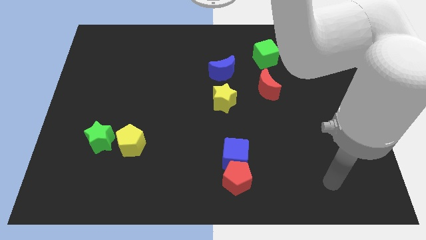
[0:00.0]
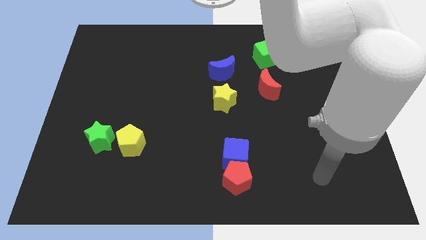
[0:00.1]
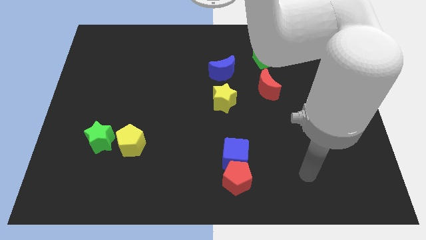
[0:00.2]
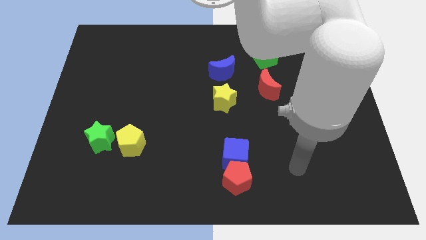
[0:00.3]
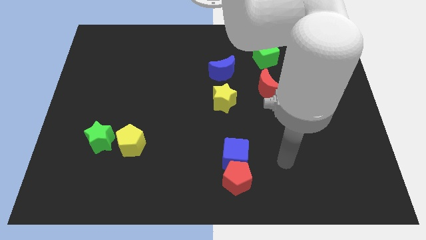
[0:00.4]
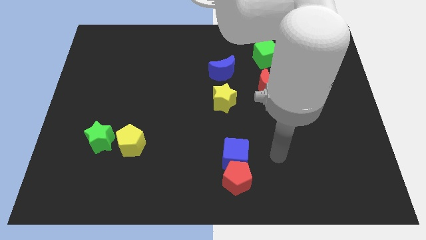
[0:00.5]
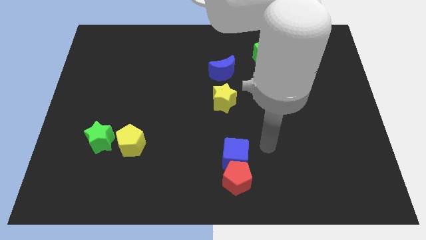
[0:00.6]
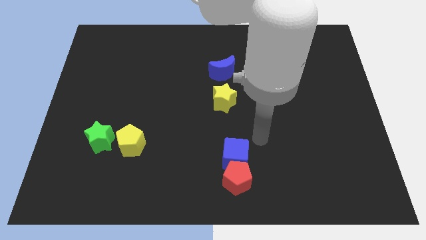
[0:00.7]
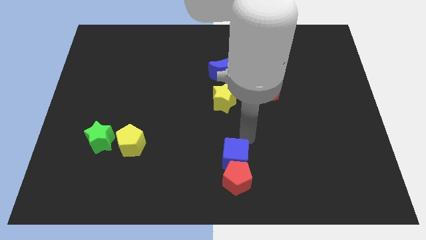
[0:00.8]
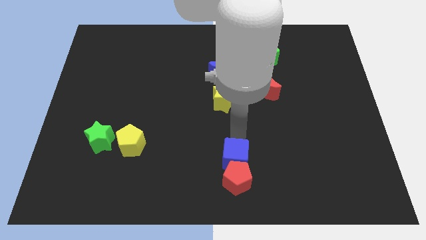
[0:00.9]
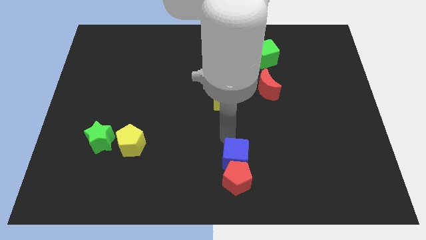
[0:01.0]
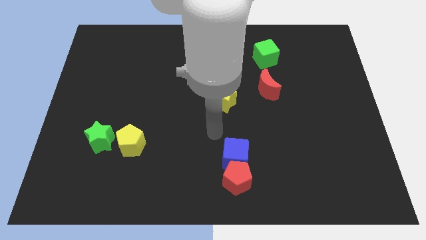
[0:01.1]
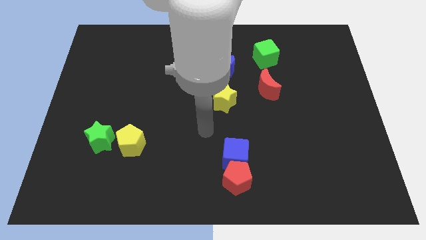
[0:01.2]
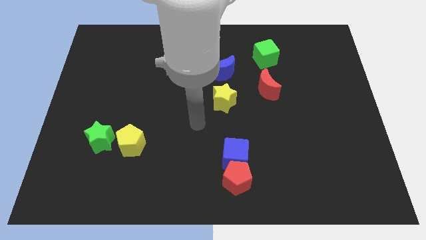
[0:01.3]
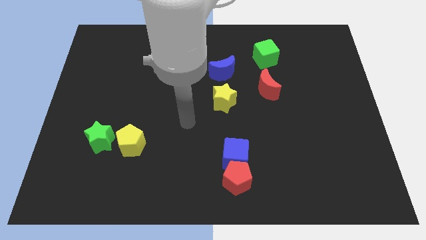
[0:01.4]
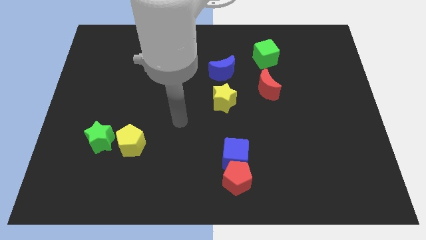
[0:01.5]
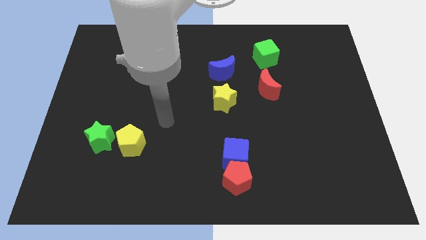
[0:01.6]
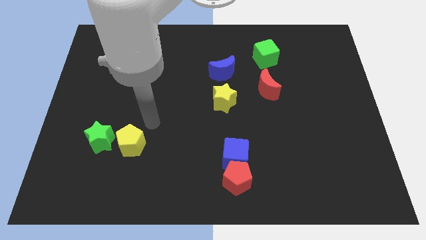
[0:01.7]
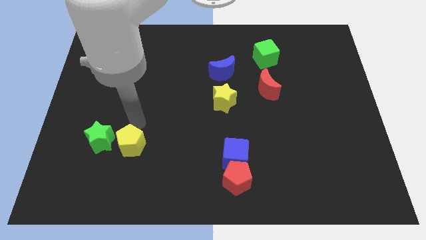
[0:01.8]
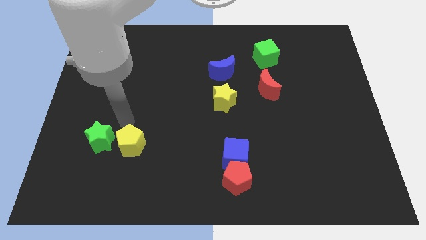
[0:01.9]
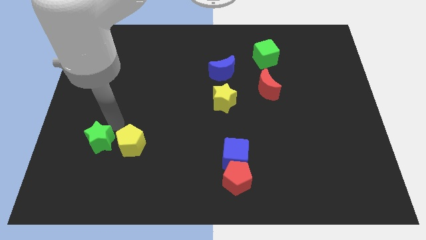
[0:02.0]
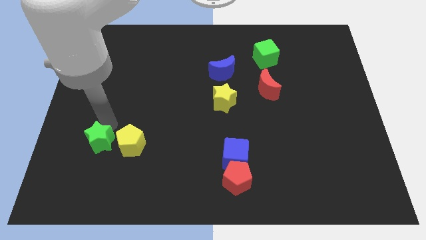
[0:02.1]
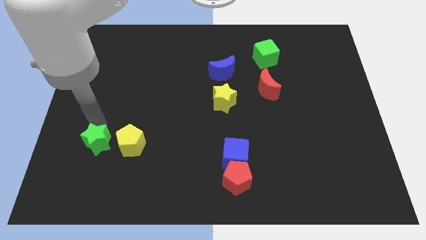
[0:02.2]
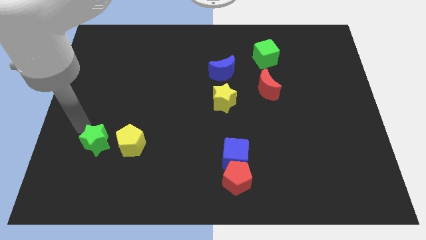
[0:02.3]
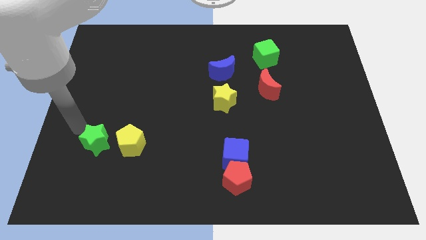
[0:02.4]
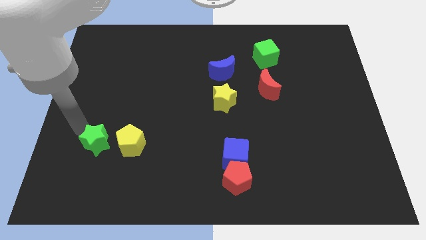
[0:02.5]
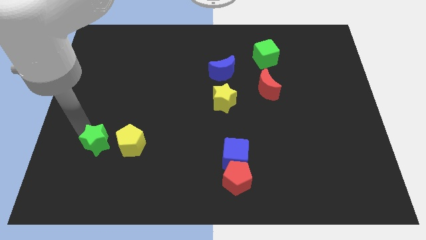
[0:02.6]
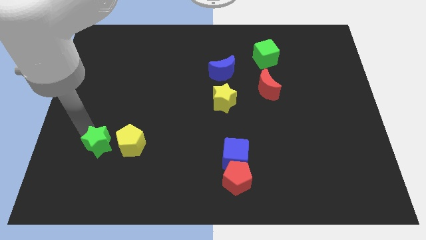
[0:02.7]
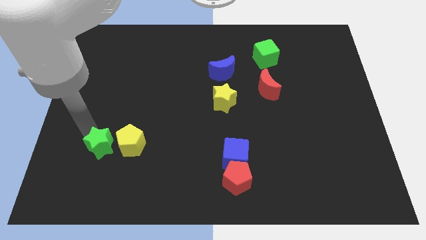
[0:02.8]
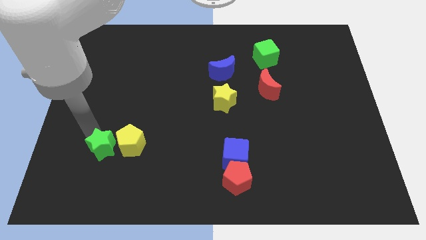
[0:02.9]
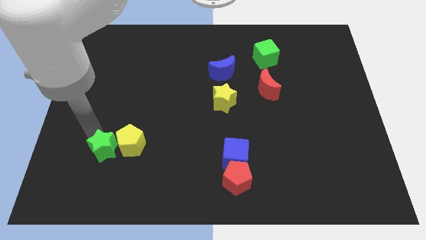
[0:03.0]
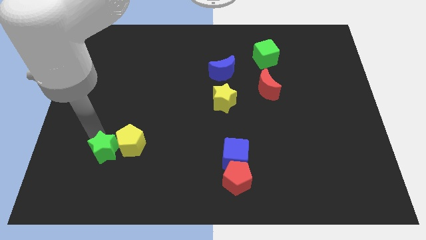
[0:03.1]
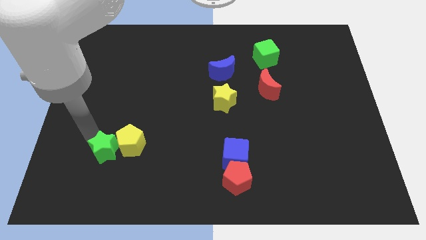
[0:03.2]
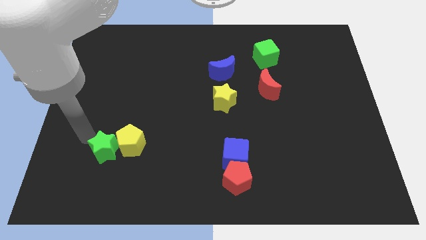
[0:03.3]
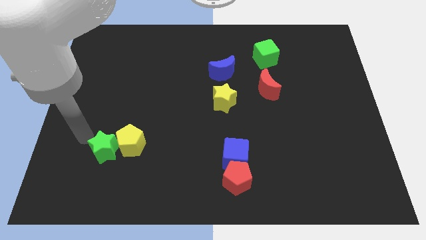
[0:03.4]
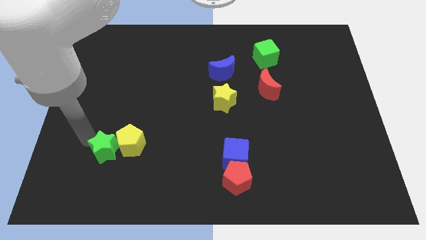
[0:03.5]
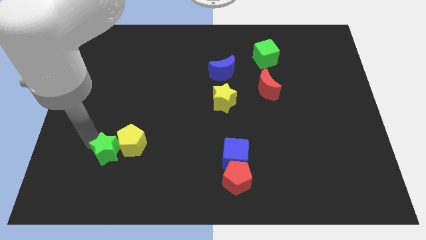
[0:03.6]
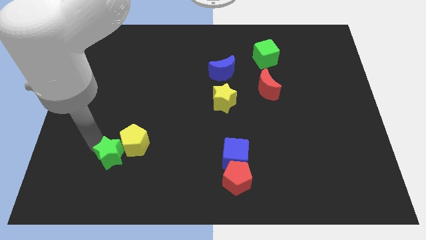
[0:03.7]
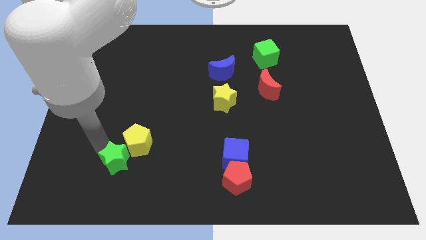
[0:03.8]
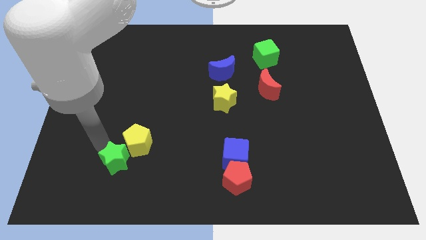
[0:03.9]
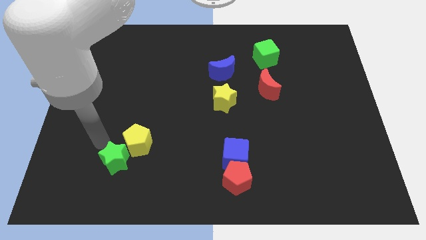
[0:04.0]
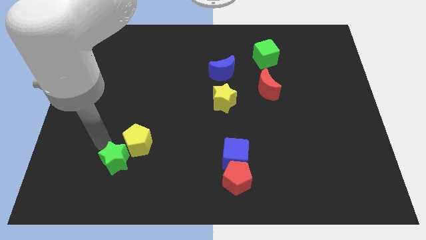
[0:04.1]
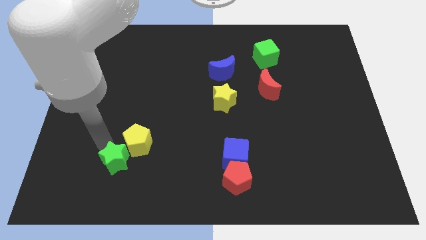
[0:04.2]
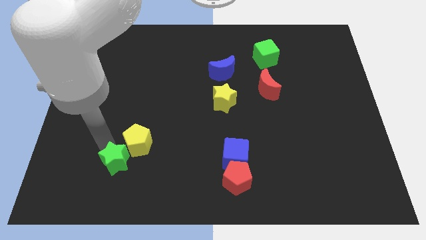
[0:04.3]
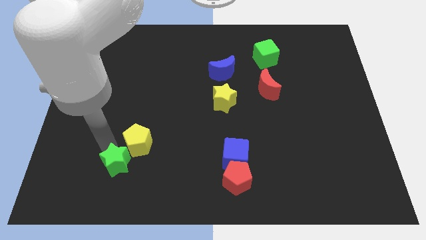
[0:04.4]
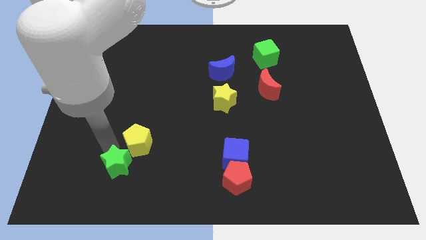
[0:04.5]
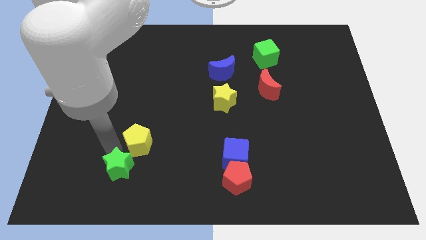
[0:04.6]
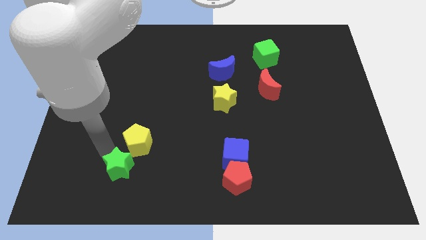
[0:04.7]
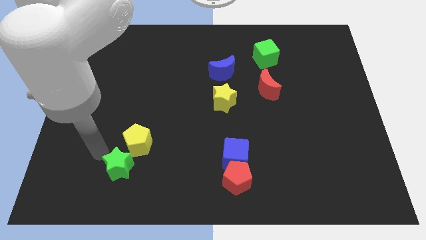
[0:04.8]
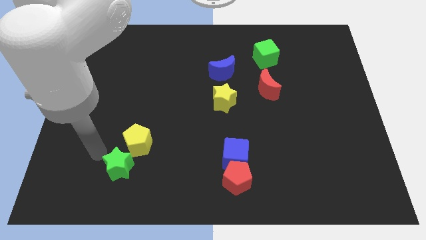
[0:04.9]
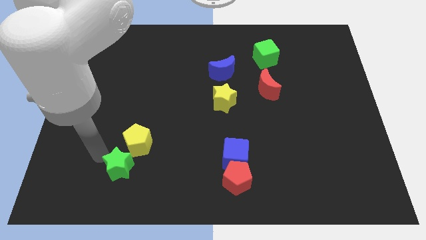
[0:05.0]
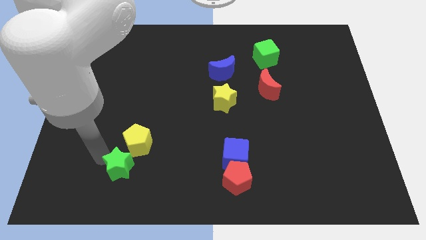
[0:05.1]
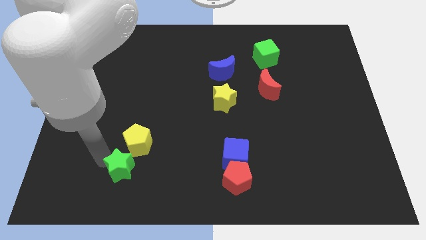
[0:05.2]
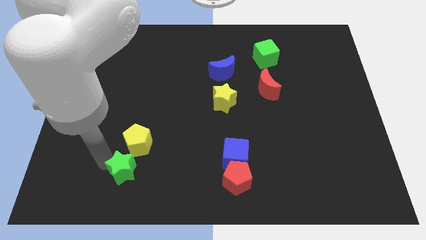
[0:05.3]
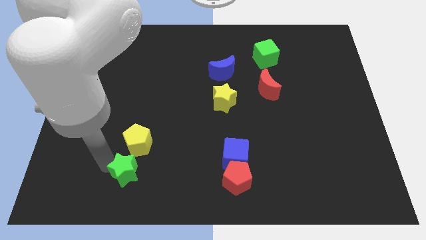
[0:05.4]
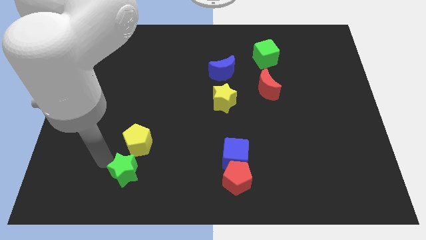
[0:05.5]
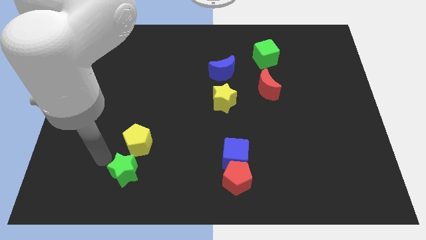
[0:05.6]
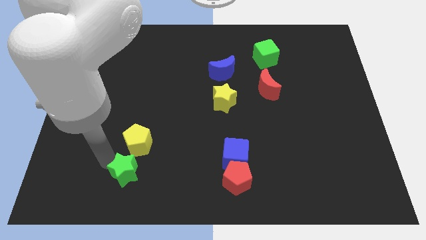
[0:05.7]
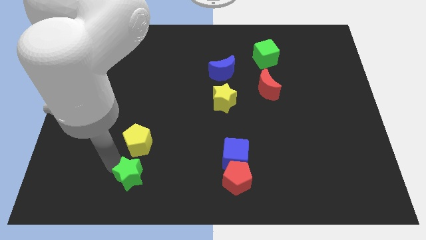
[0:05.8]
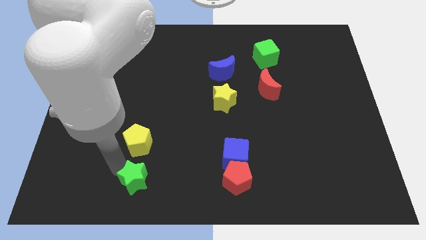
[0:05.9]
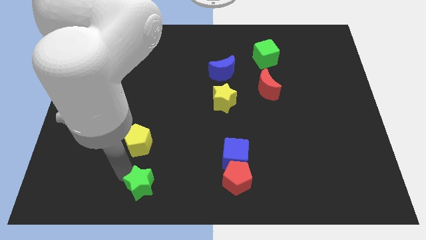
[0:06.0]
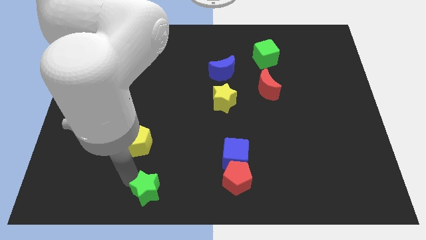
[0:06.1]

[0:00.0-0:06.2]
slide the green star to the bottom side
